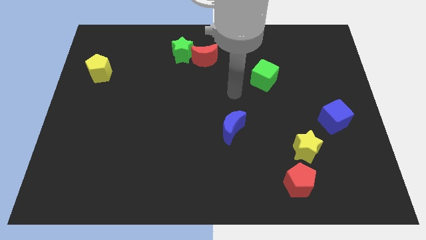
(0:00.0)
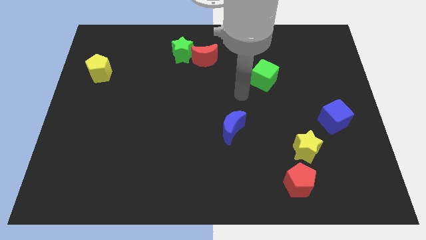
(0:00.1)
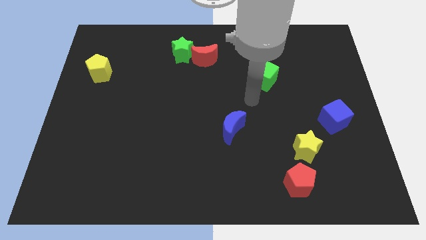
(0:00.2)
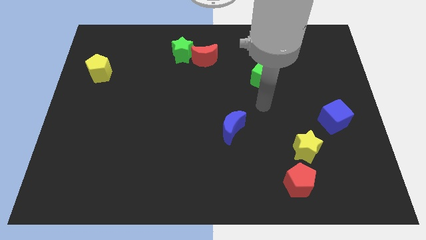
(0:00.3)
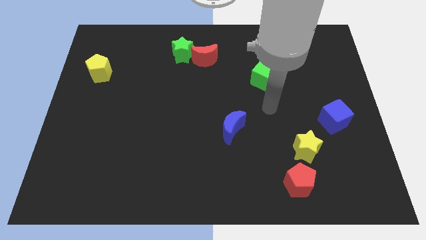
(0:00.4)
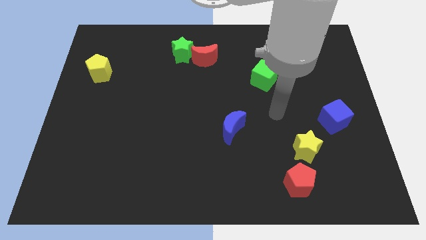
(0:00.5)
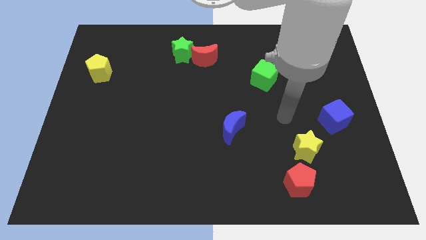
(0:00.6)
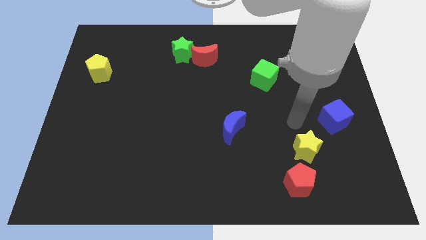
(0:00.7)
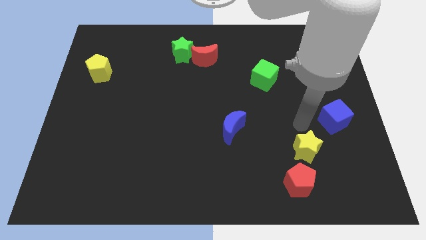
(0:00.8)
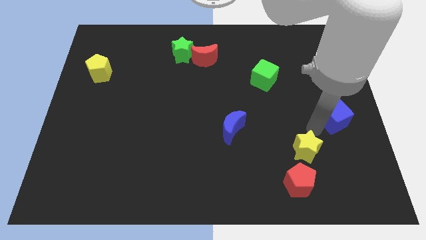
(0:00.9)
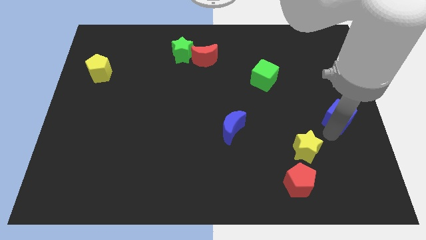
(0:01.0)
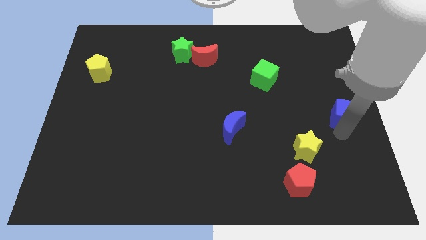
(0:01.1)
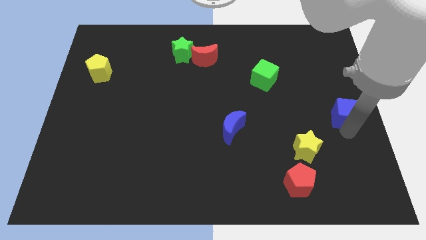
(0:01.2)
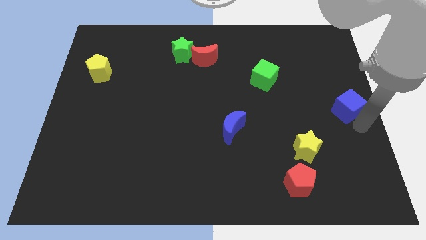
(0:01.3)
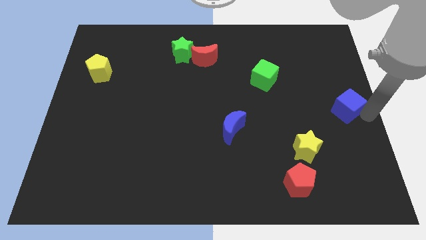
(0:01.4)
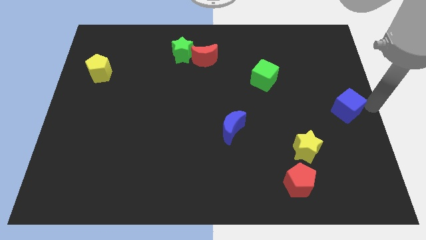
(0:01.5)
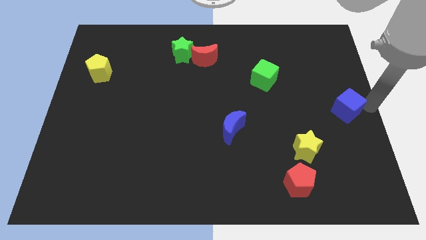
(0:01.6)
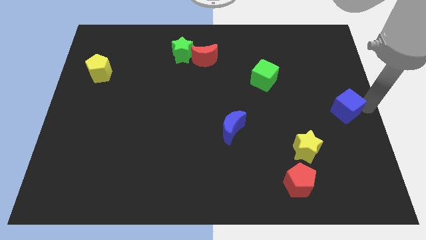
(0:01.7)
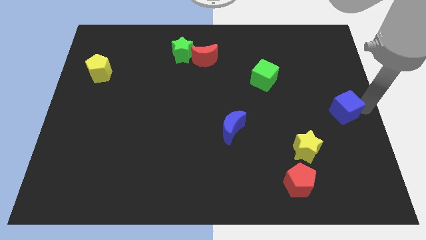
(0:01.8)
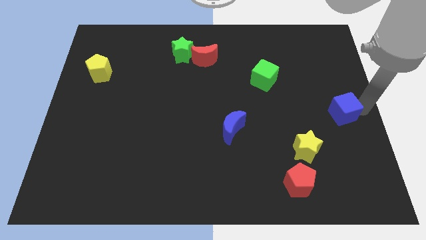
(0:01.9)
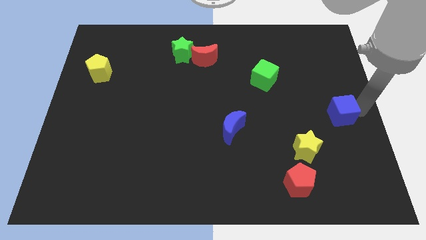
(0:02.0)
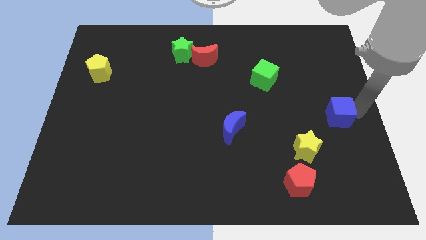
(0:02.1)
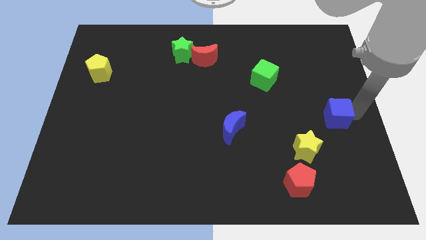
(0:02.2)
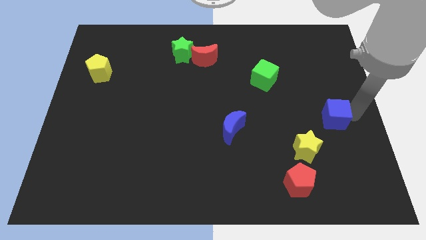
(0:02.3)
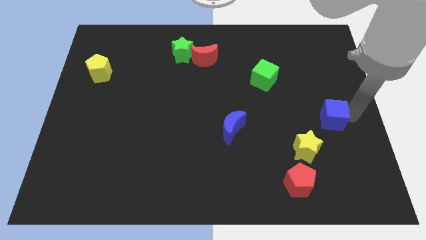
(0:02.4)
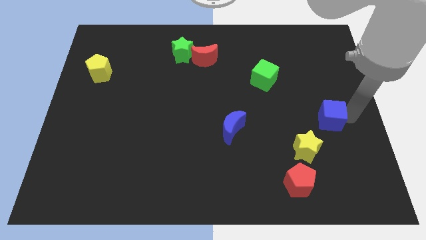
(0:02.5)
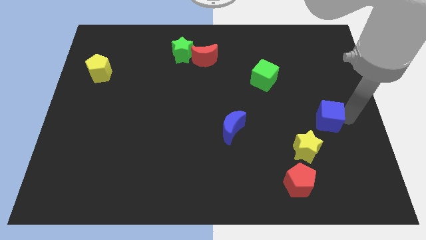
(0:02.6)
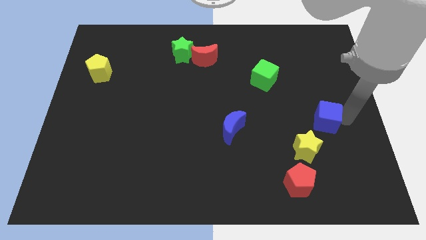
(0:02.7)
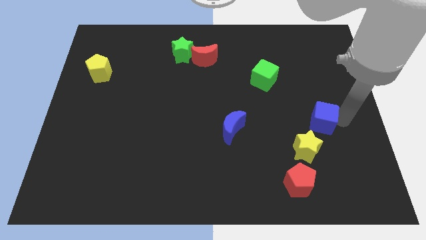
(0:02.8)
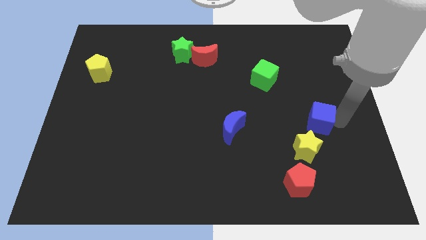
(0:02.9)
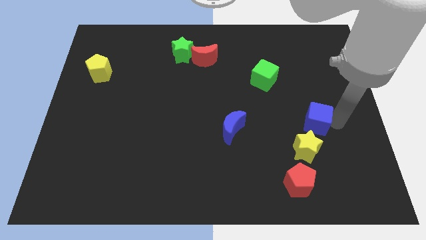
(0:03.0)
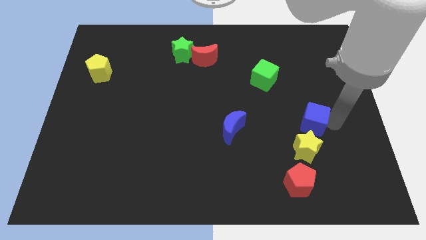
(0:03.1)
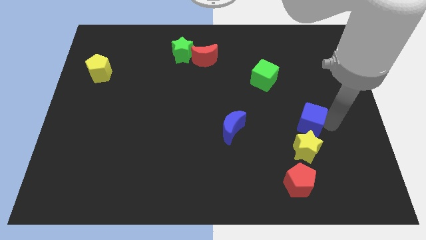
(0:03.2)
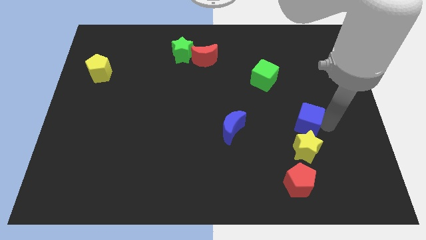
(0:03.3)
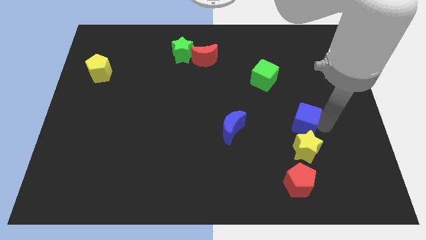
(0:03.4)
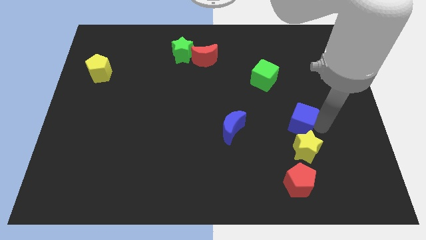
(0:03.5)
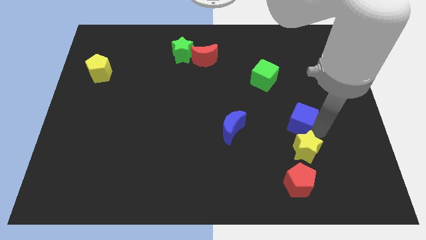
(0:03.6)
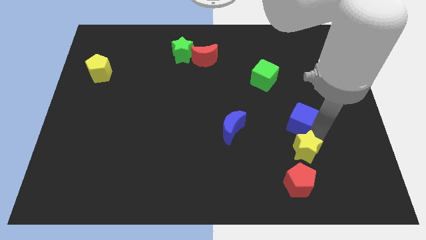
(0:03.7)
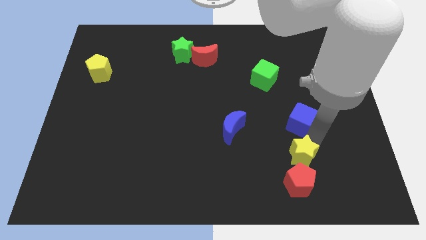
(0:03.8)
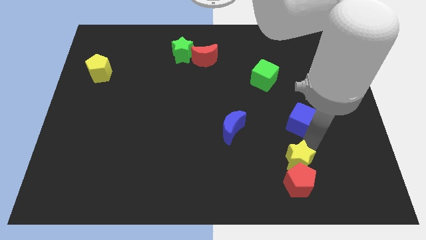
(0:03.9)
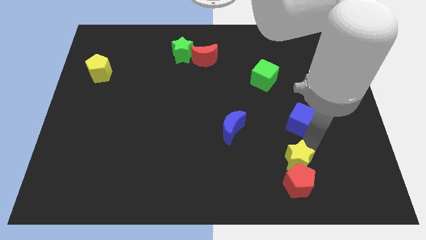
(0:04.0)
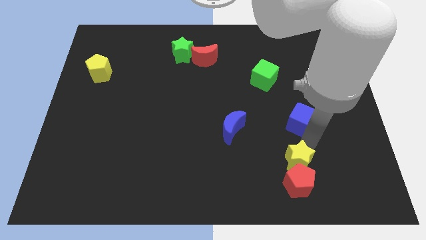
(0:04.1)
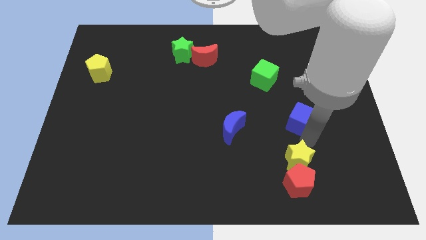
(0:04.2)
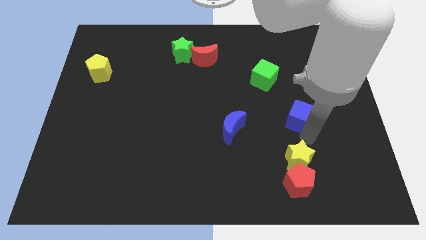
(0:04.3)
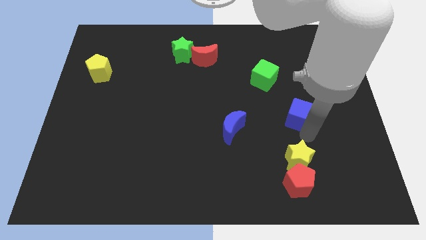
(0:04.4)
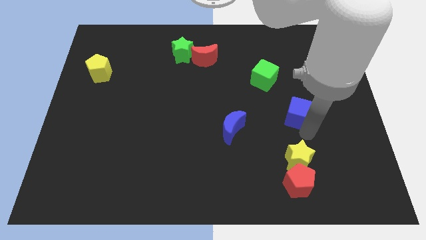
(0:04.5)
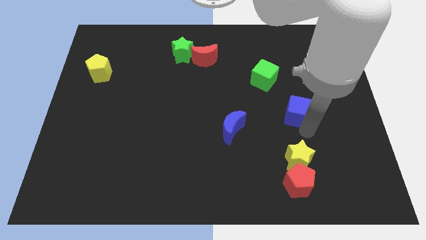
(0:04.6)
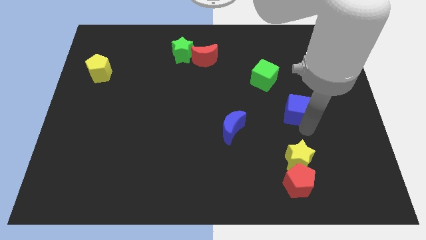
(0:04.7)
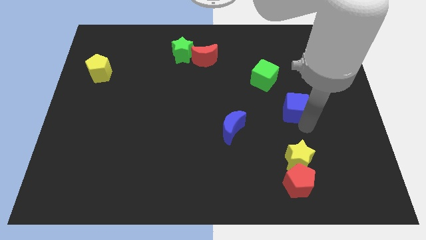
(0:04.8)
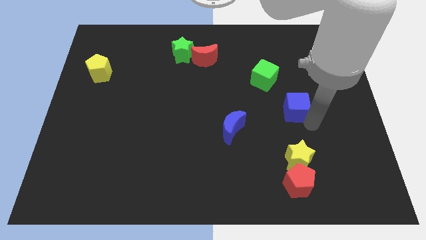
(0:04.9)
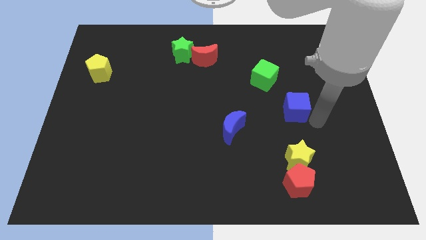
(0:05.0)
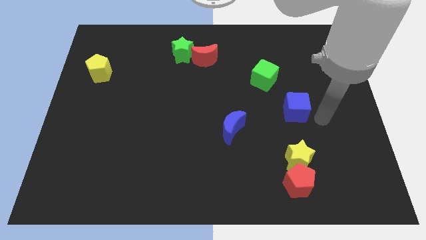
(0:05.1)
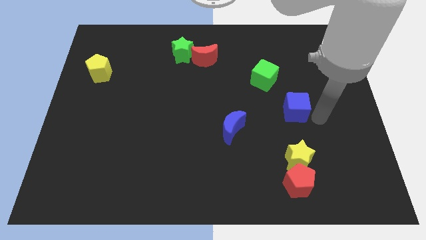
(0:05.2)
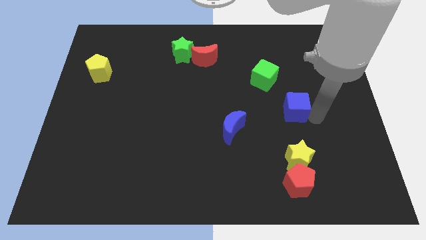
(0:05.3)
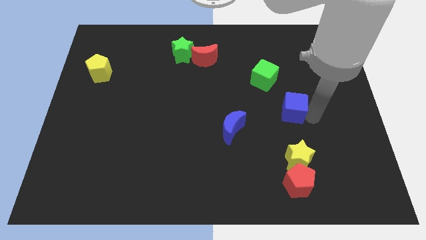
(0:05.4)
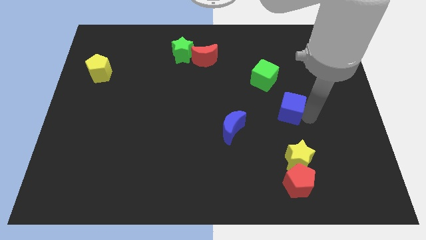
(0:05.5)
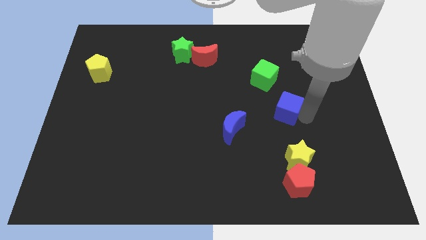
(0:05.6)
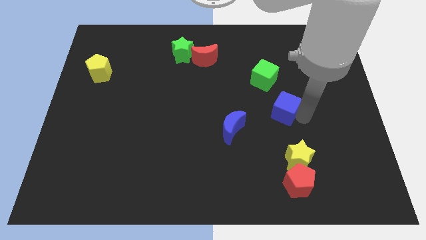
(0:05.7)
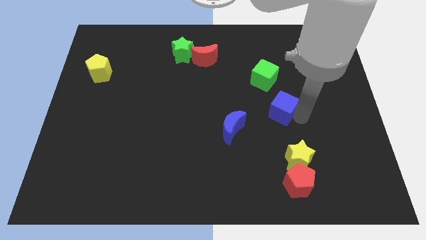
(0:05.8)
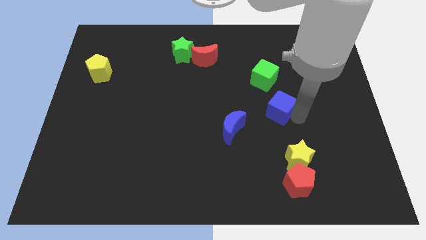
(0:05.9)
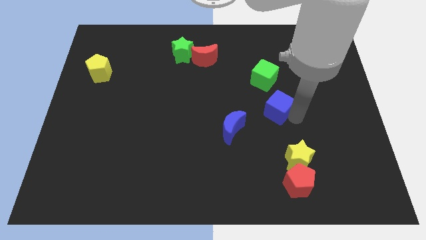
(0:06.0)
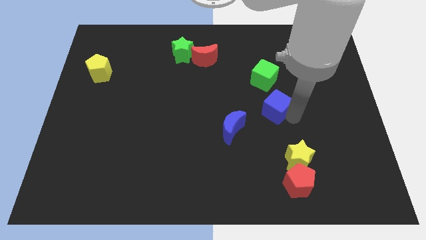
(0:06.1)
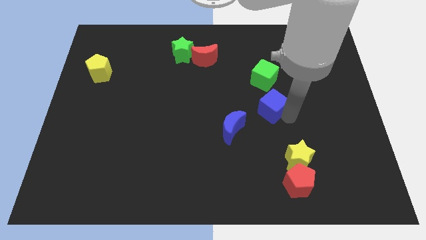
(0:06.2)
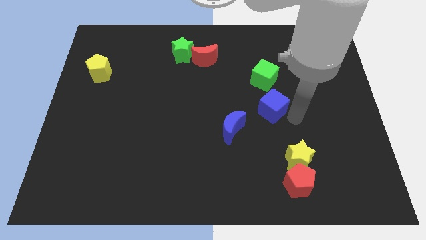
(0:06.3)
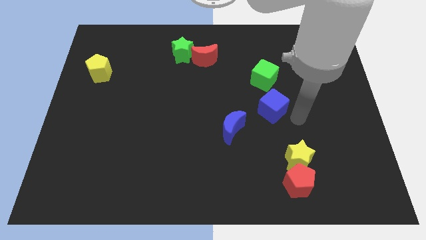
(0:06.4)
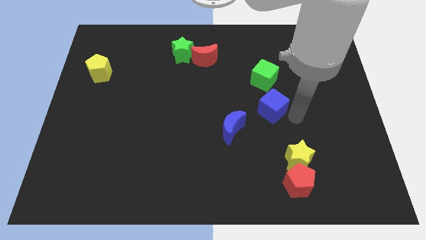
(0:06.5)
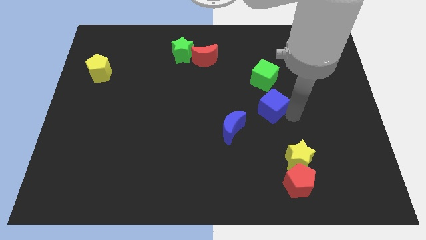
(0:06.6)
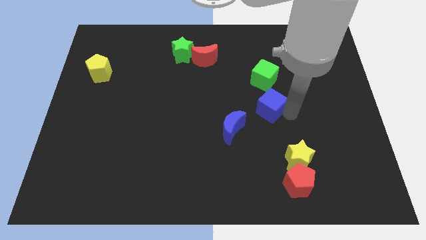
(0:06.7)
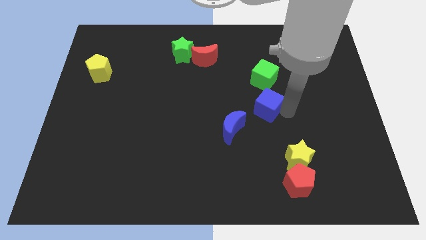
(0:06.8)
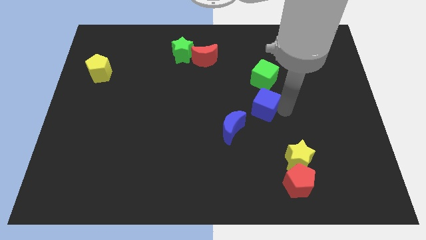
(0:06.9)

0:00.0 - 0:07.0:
slide the blue cube to the middle of the board

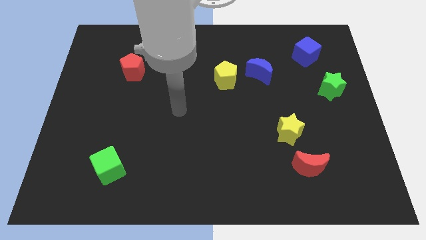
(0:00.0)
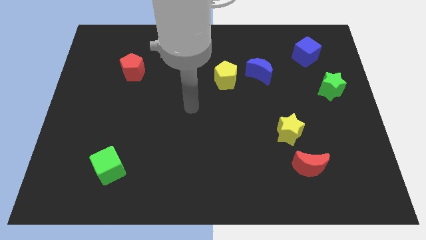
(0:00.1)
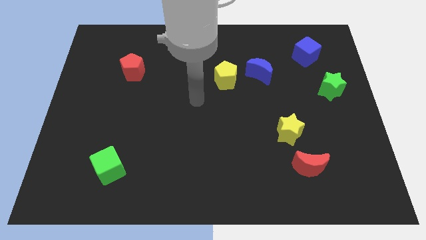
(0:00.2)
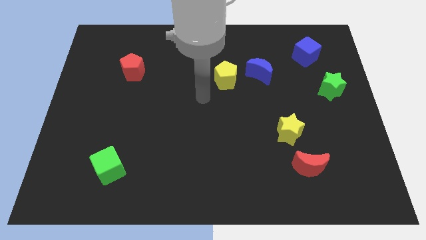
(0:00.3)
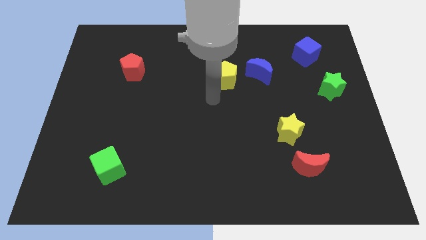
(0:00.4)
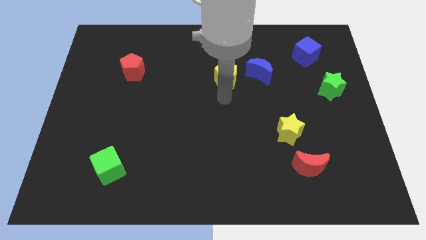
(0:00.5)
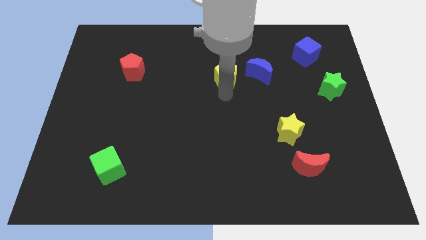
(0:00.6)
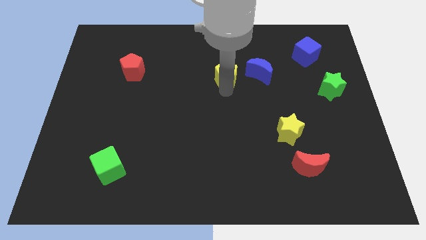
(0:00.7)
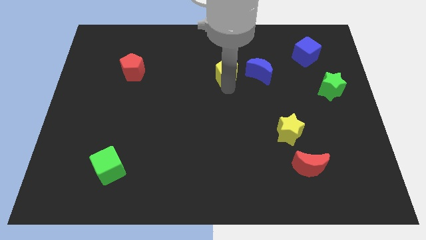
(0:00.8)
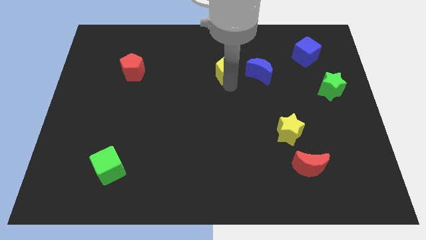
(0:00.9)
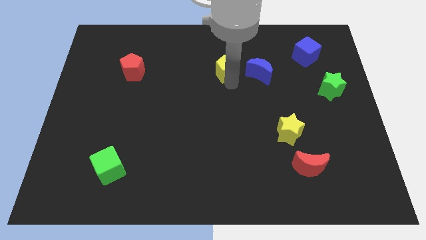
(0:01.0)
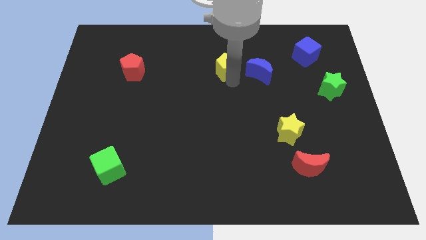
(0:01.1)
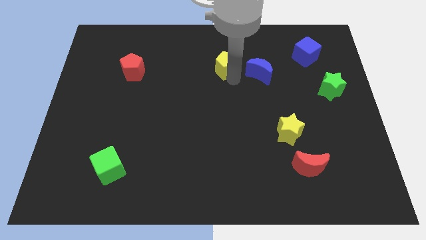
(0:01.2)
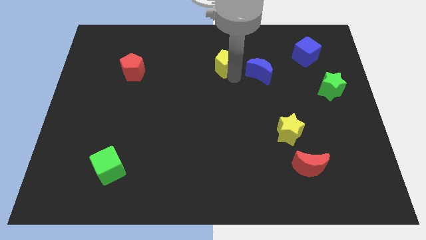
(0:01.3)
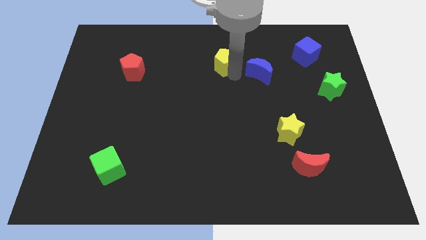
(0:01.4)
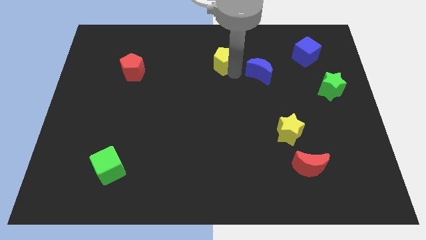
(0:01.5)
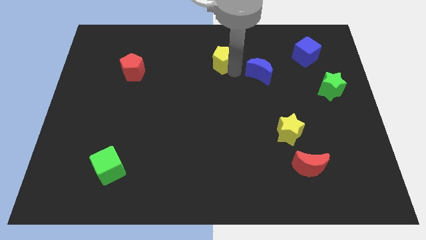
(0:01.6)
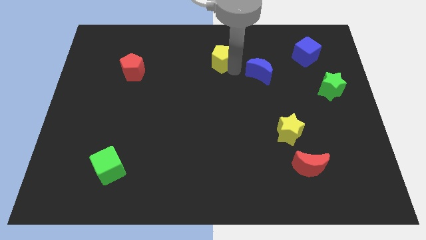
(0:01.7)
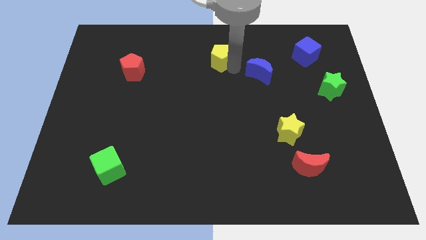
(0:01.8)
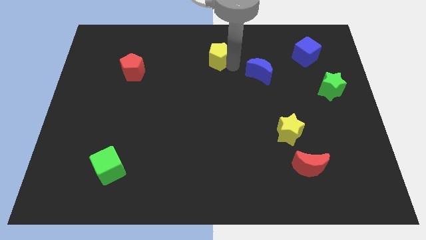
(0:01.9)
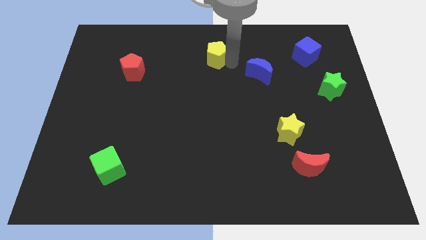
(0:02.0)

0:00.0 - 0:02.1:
push the yellow pentagon to the towards your base
